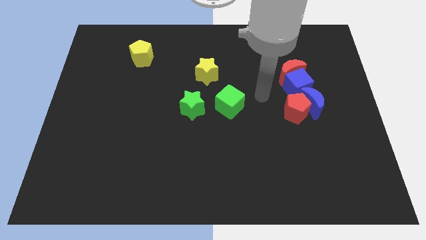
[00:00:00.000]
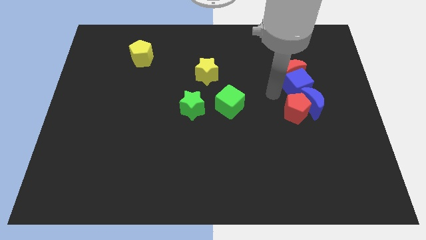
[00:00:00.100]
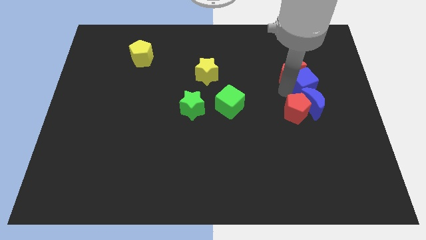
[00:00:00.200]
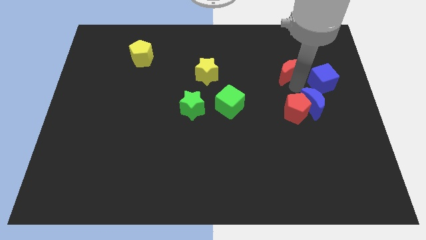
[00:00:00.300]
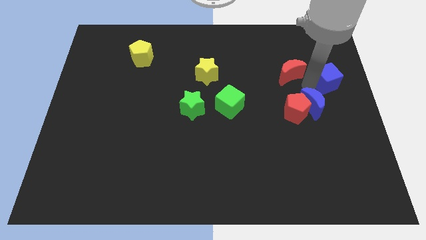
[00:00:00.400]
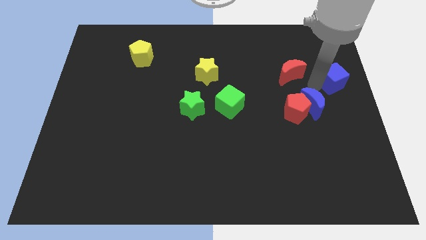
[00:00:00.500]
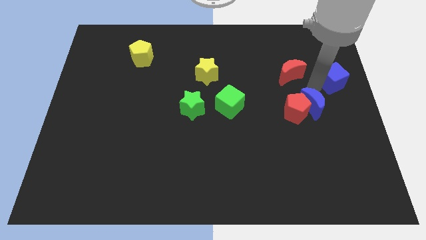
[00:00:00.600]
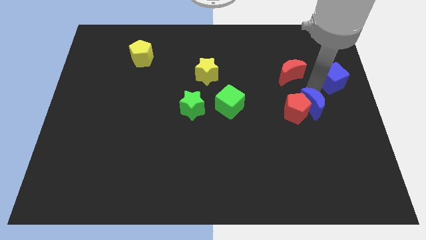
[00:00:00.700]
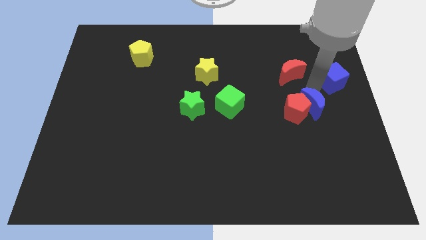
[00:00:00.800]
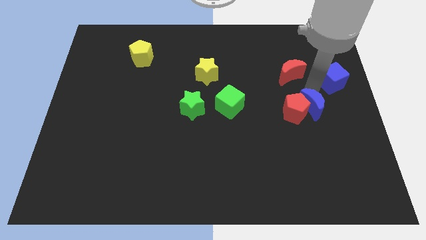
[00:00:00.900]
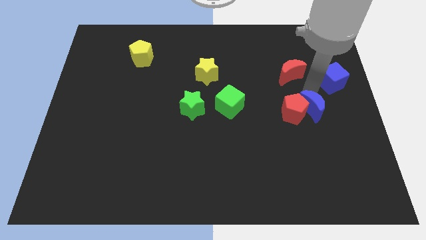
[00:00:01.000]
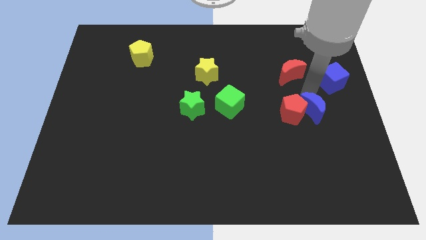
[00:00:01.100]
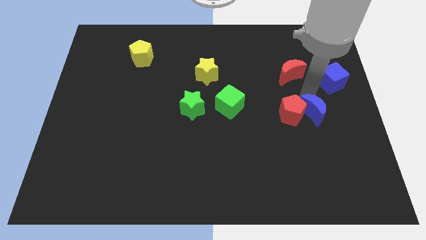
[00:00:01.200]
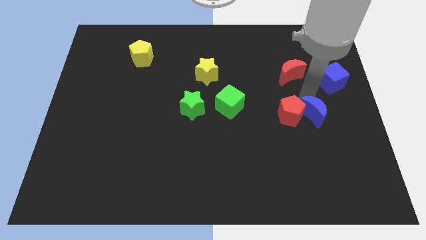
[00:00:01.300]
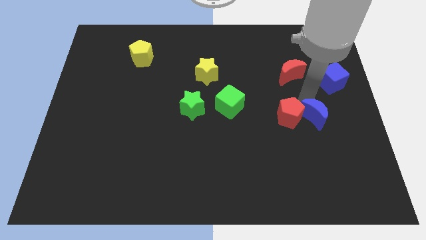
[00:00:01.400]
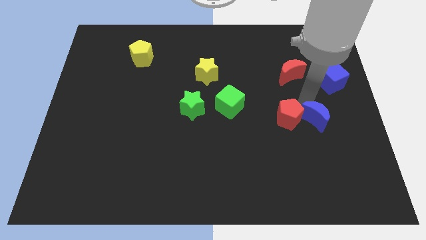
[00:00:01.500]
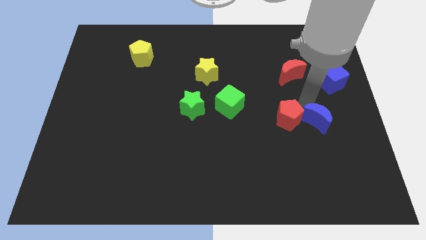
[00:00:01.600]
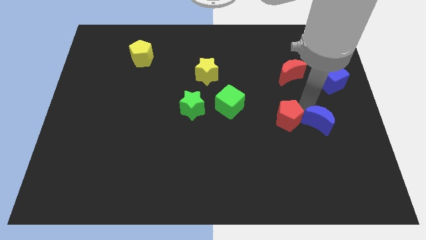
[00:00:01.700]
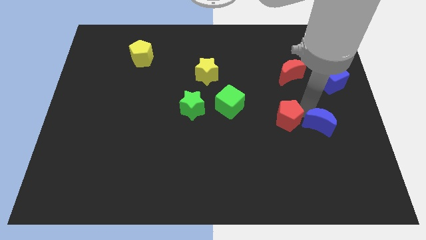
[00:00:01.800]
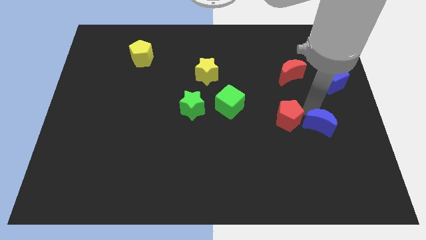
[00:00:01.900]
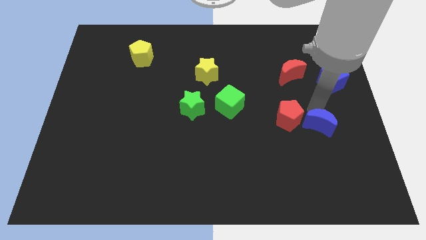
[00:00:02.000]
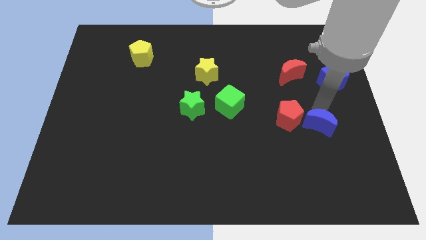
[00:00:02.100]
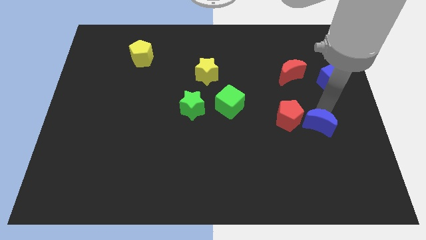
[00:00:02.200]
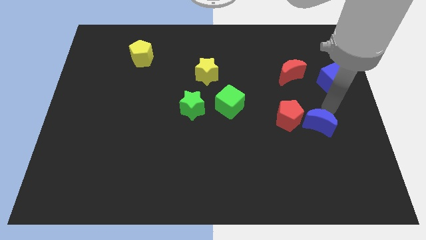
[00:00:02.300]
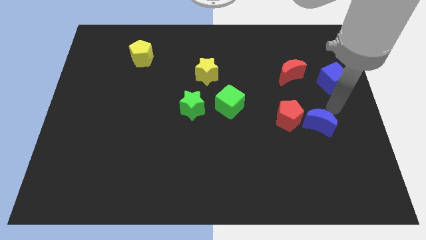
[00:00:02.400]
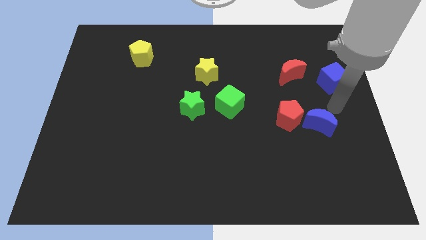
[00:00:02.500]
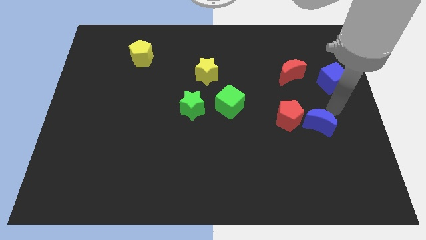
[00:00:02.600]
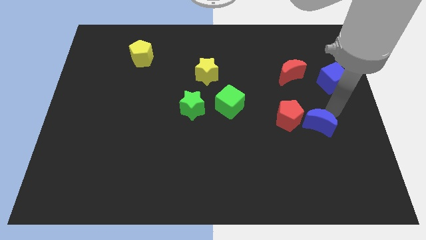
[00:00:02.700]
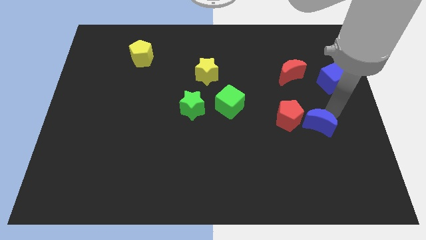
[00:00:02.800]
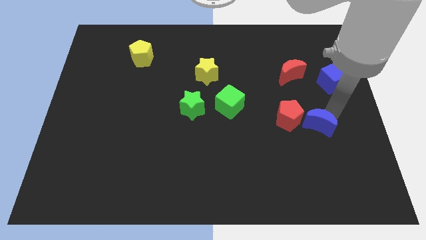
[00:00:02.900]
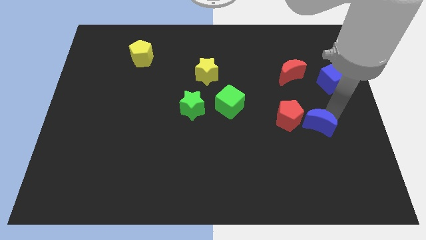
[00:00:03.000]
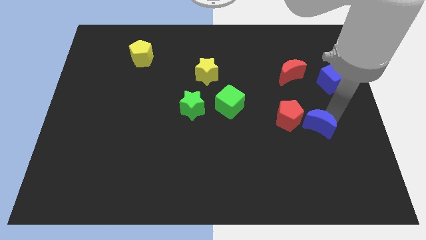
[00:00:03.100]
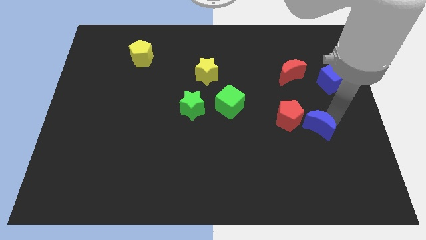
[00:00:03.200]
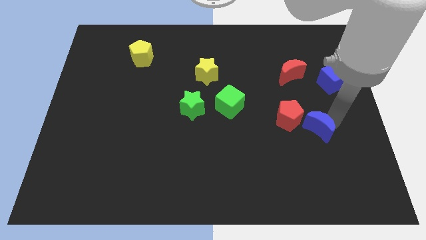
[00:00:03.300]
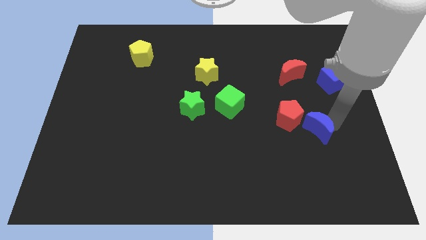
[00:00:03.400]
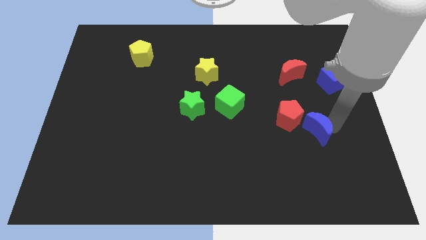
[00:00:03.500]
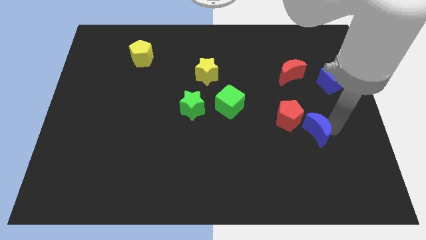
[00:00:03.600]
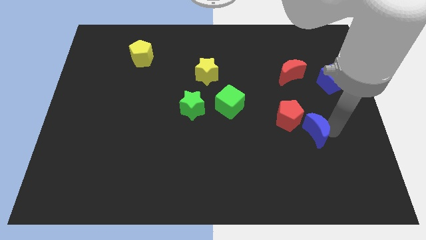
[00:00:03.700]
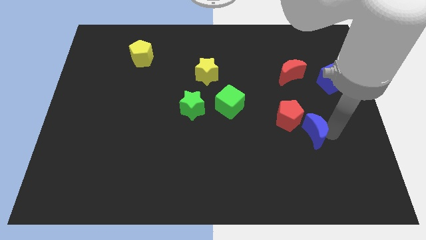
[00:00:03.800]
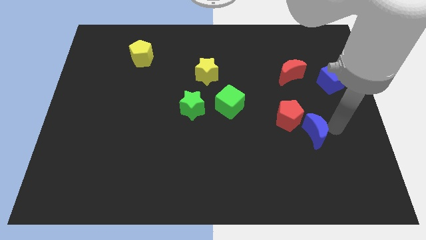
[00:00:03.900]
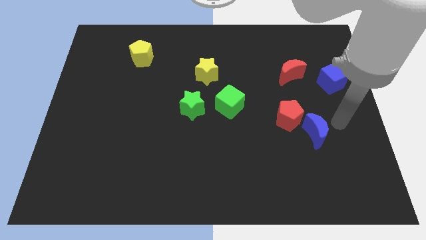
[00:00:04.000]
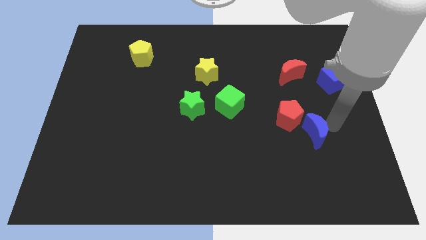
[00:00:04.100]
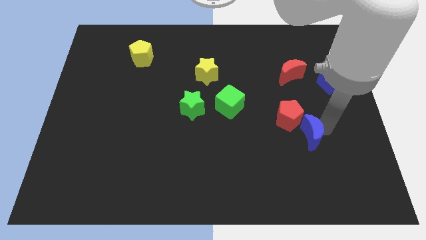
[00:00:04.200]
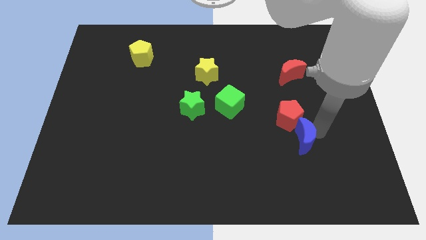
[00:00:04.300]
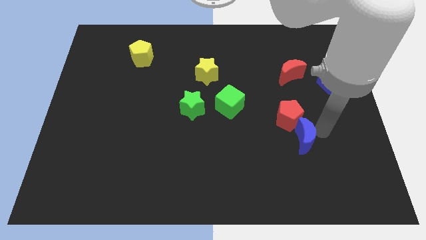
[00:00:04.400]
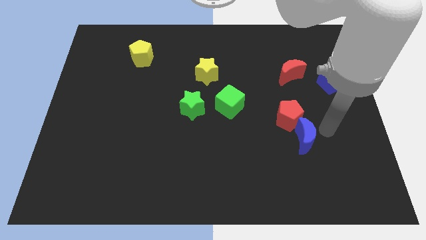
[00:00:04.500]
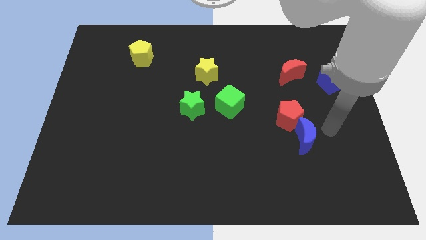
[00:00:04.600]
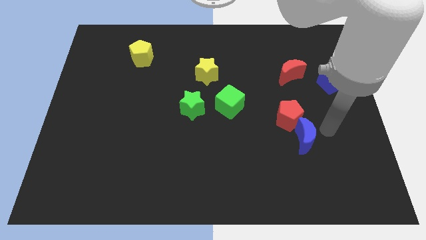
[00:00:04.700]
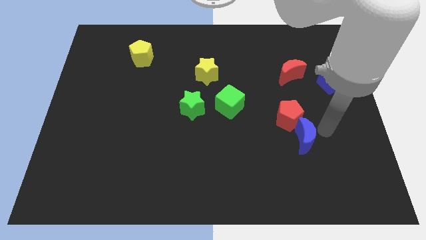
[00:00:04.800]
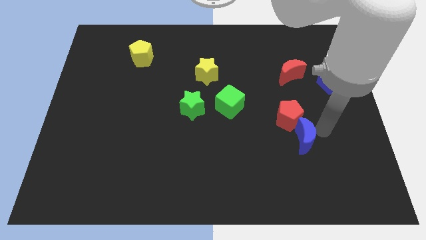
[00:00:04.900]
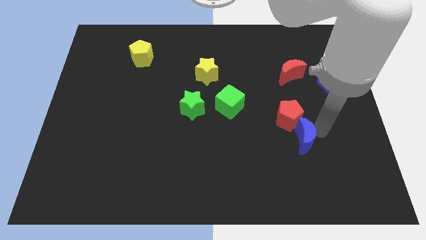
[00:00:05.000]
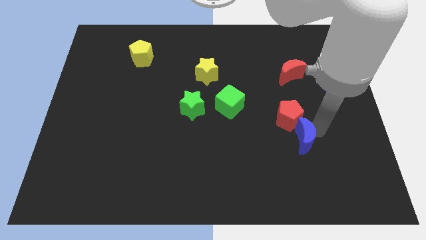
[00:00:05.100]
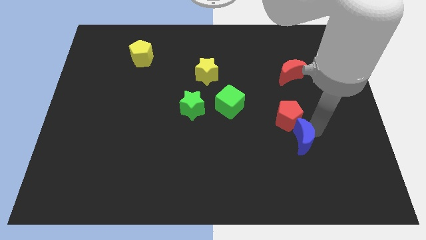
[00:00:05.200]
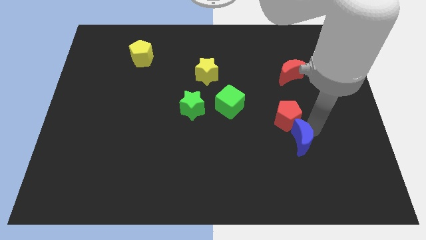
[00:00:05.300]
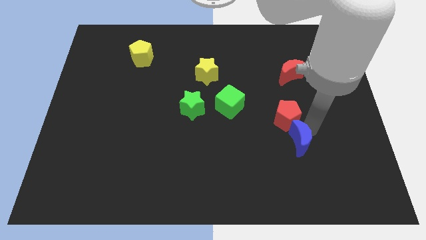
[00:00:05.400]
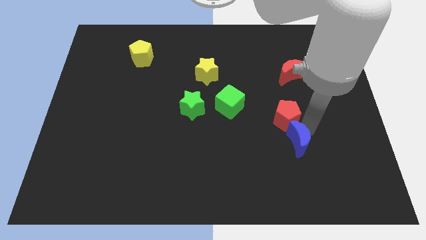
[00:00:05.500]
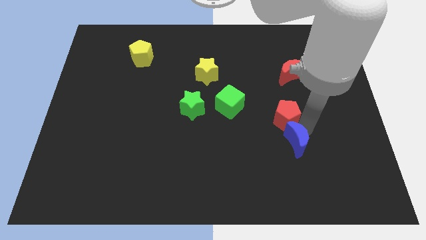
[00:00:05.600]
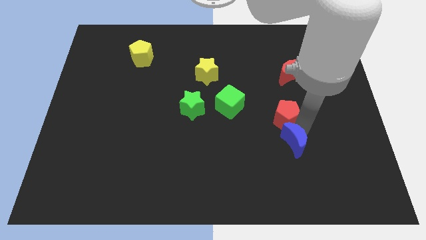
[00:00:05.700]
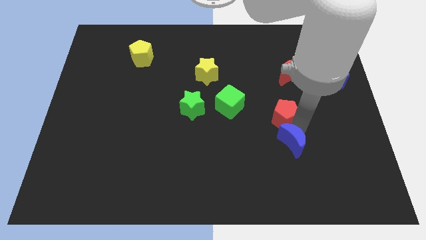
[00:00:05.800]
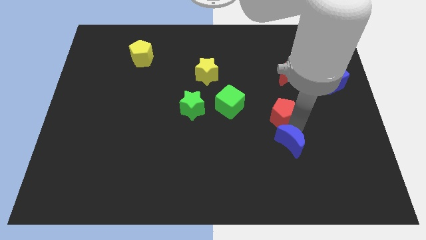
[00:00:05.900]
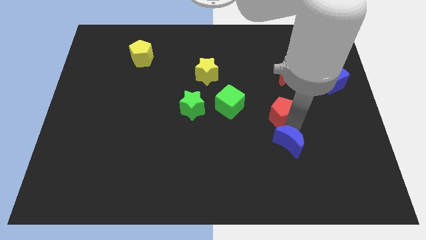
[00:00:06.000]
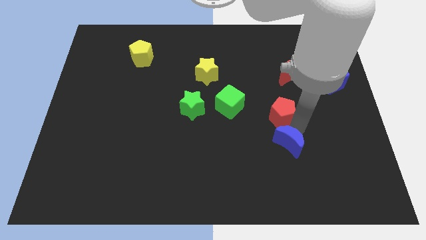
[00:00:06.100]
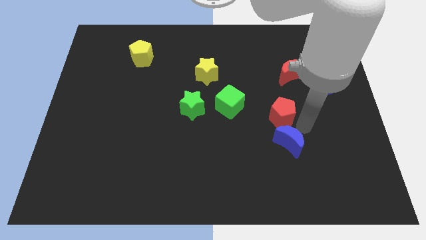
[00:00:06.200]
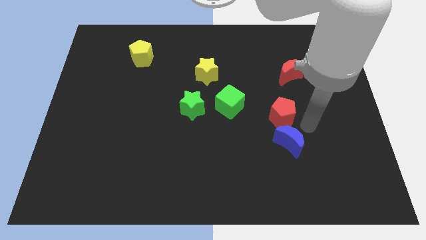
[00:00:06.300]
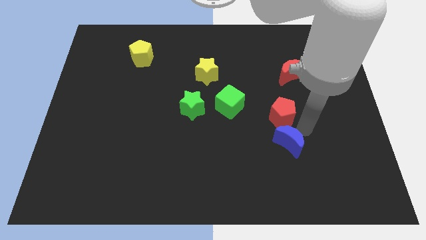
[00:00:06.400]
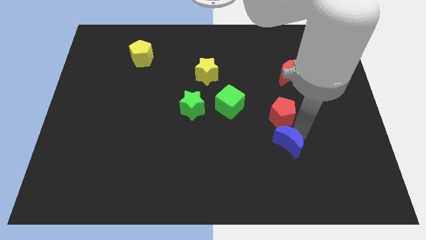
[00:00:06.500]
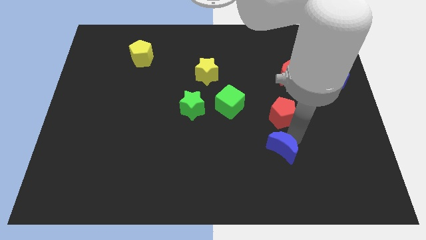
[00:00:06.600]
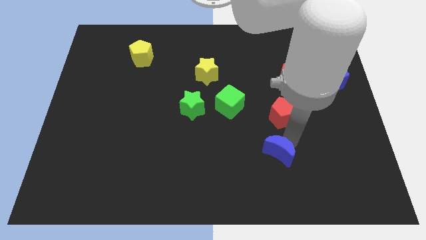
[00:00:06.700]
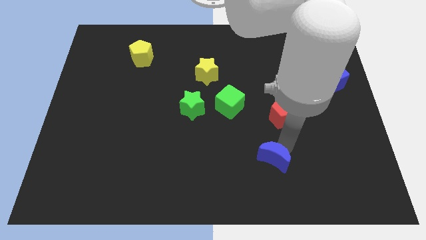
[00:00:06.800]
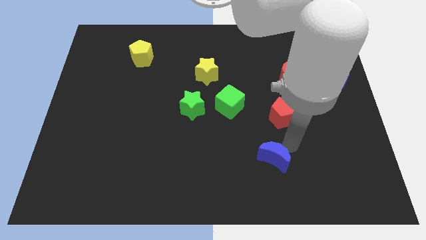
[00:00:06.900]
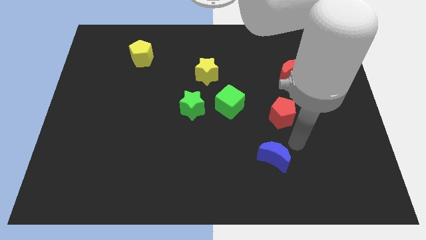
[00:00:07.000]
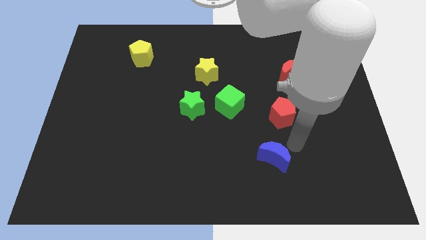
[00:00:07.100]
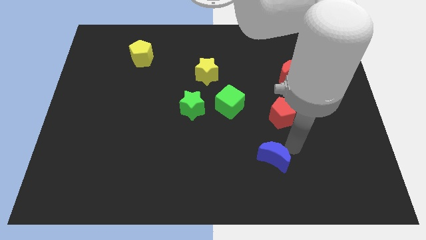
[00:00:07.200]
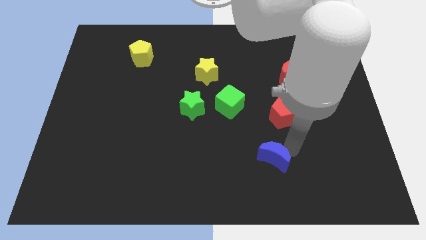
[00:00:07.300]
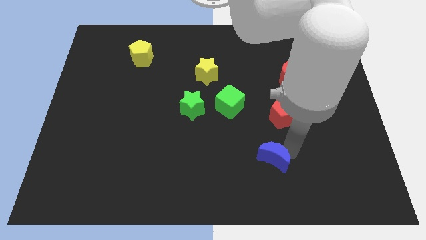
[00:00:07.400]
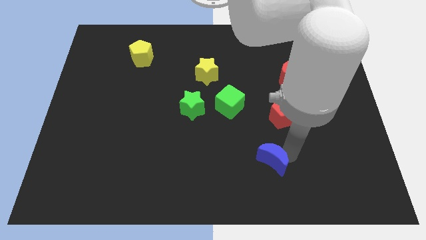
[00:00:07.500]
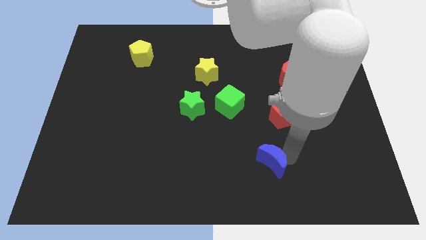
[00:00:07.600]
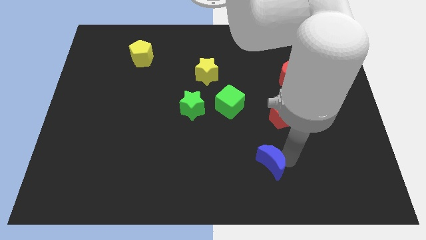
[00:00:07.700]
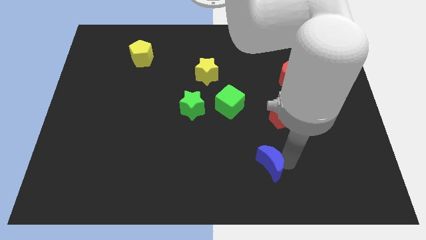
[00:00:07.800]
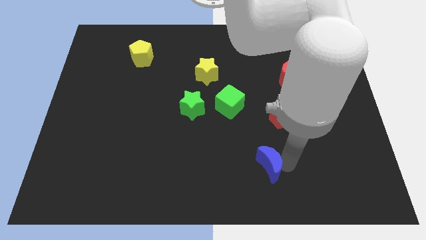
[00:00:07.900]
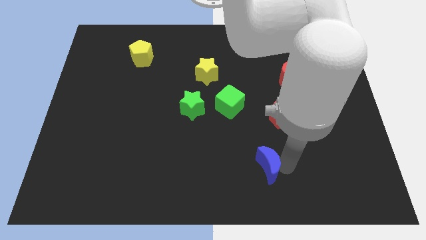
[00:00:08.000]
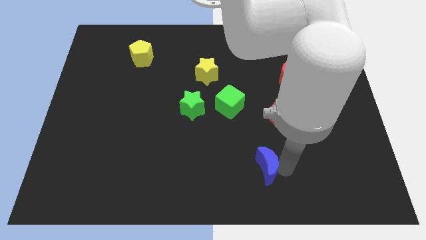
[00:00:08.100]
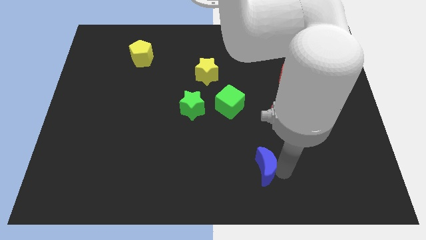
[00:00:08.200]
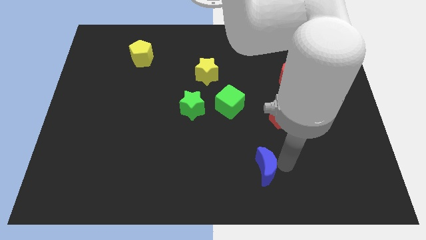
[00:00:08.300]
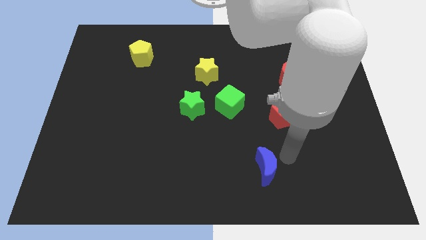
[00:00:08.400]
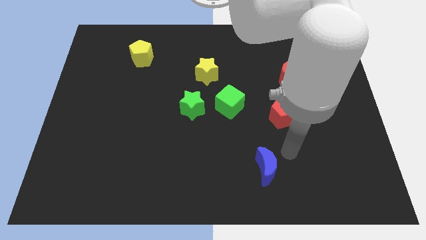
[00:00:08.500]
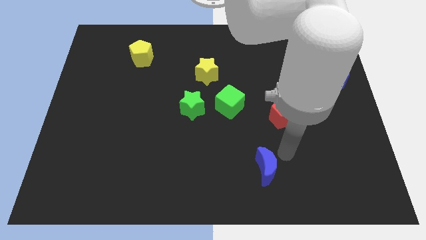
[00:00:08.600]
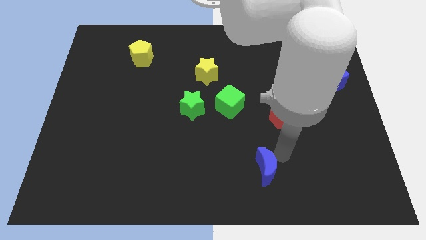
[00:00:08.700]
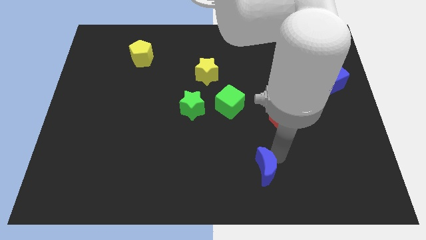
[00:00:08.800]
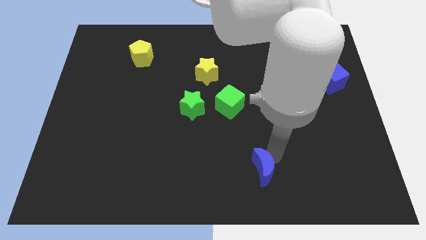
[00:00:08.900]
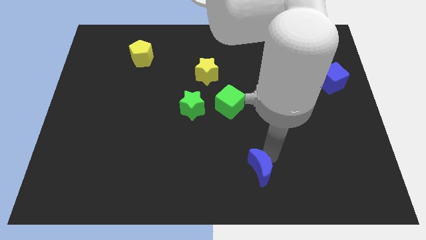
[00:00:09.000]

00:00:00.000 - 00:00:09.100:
push the blue moon to the bottom
